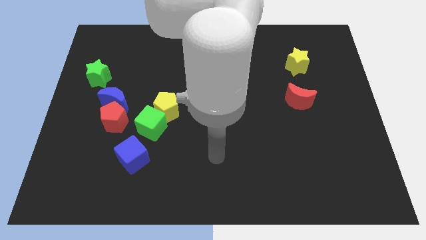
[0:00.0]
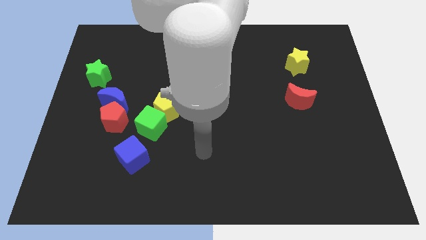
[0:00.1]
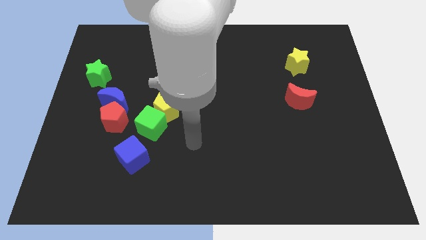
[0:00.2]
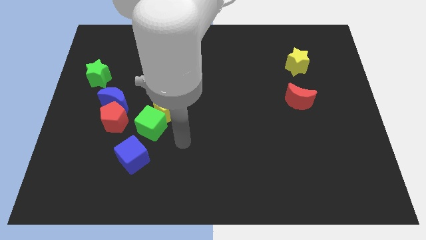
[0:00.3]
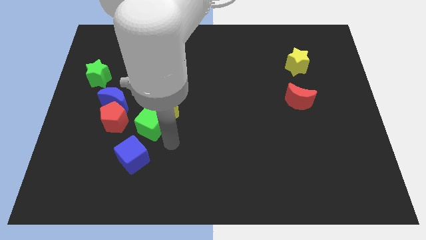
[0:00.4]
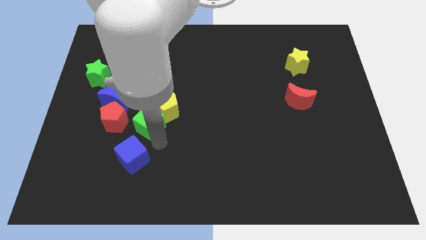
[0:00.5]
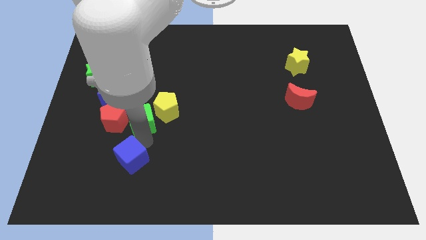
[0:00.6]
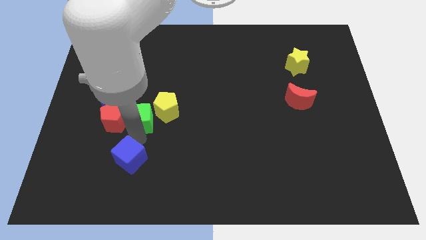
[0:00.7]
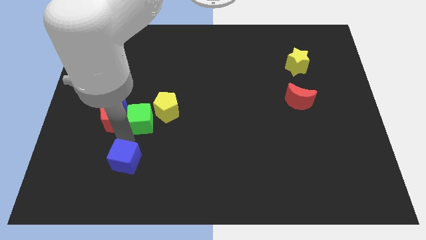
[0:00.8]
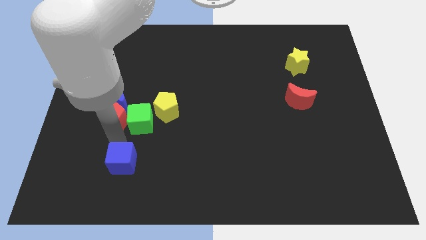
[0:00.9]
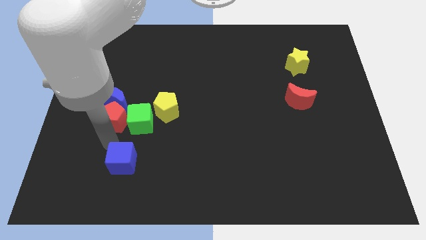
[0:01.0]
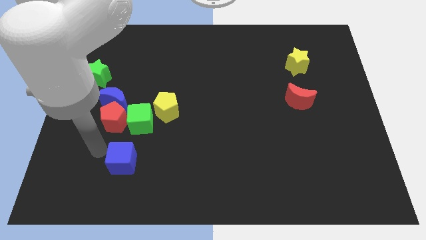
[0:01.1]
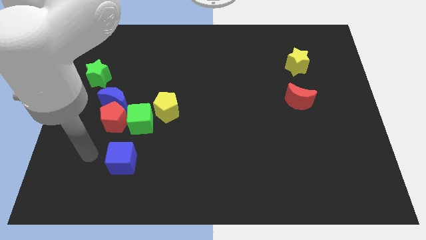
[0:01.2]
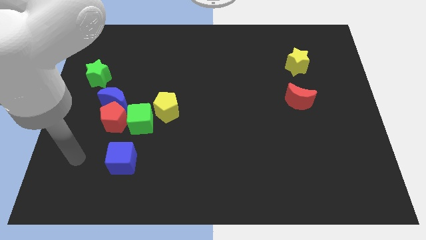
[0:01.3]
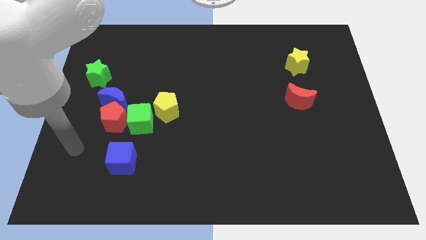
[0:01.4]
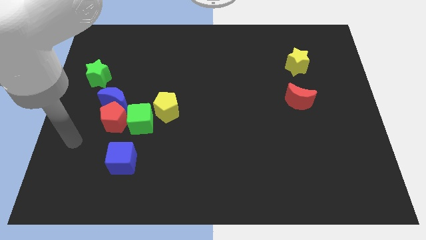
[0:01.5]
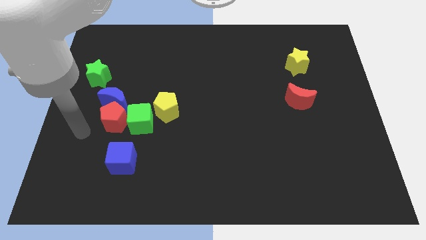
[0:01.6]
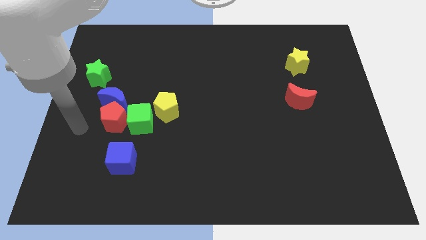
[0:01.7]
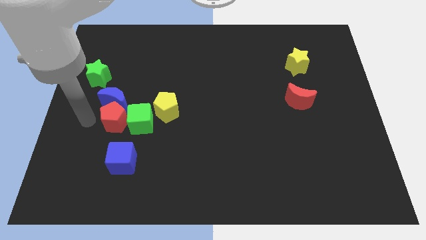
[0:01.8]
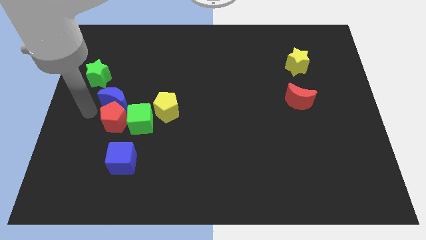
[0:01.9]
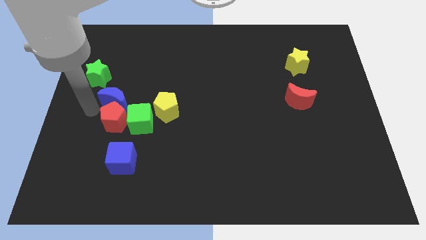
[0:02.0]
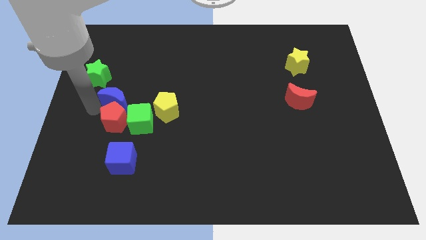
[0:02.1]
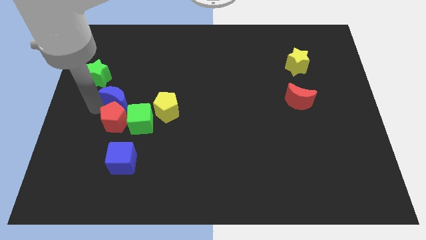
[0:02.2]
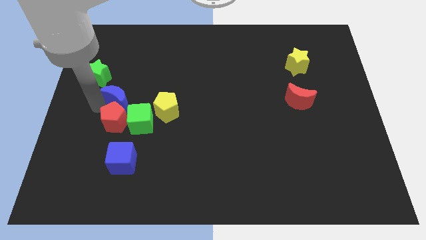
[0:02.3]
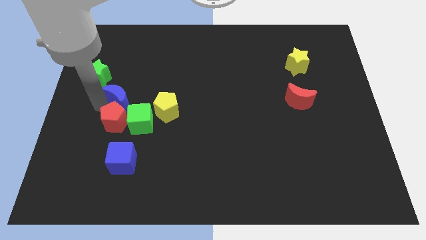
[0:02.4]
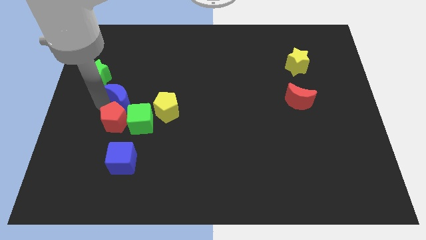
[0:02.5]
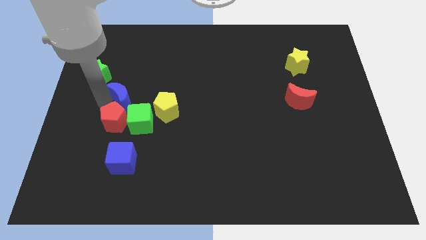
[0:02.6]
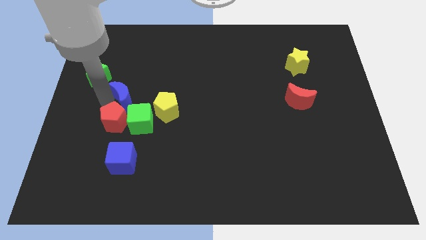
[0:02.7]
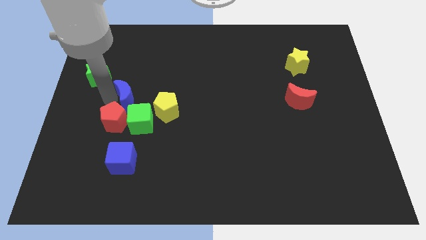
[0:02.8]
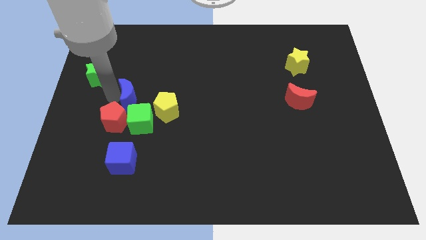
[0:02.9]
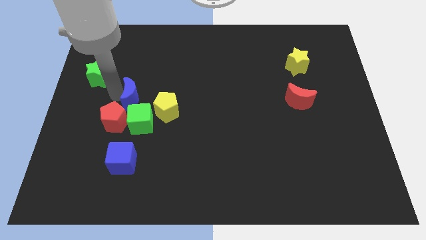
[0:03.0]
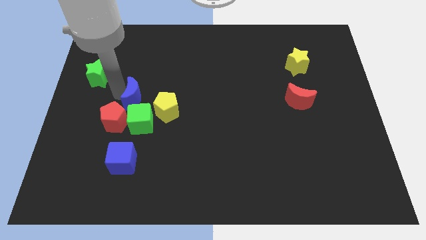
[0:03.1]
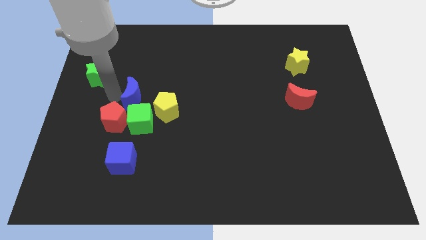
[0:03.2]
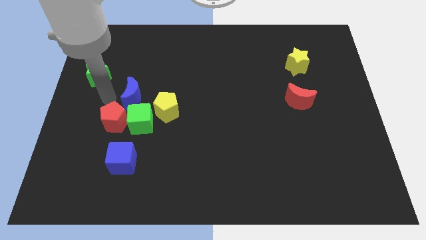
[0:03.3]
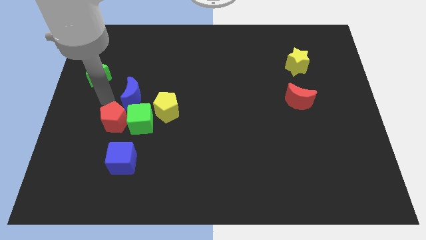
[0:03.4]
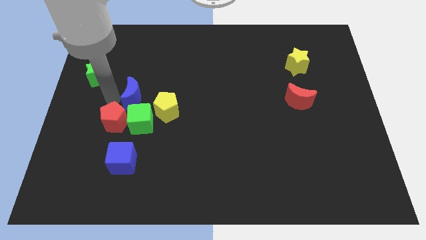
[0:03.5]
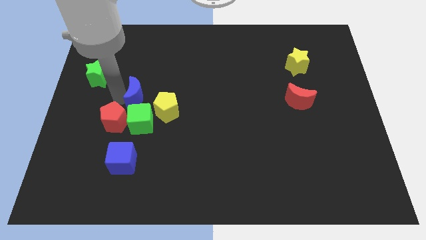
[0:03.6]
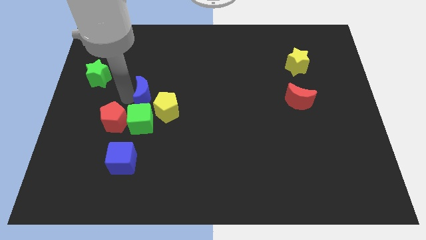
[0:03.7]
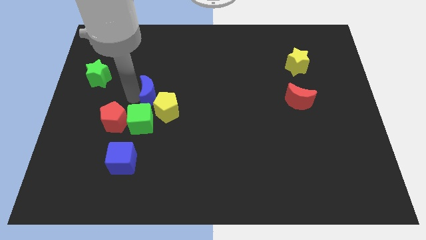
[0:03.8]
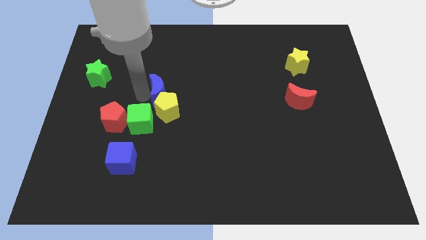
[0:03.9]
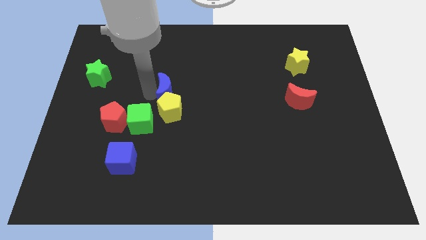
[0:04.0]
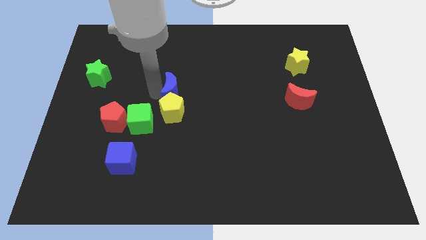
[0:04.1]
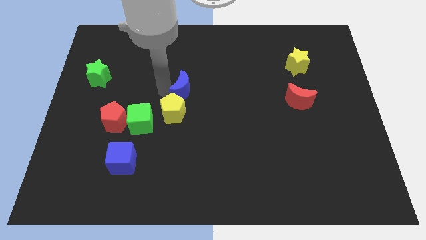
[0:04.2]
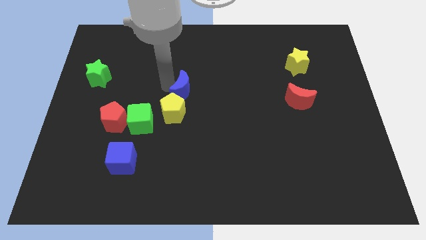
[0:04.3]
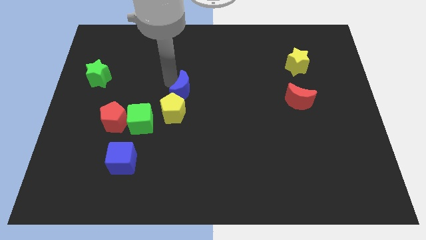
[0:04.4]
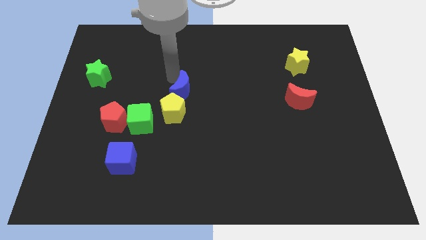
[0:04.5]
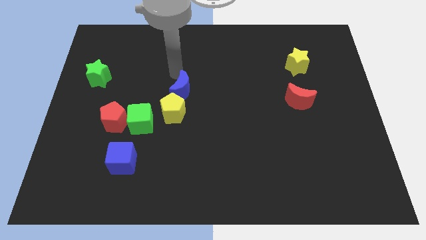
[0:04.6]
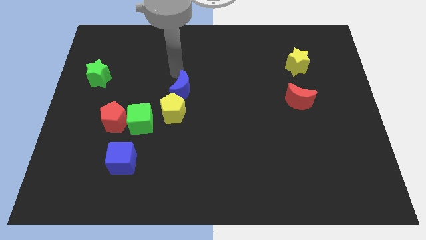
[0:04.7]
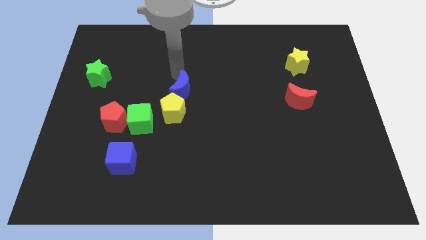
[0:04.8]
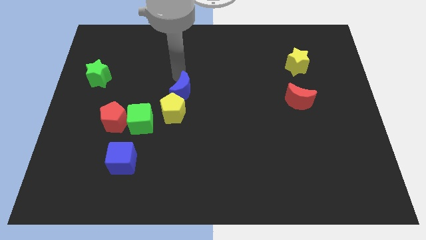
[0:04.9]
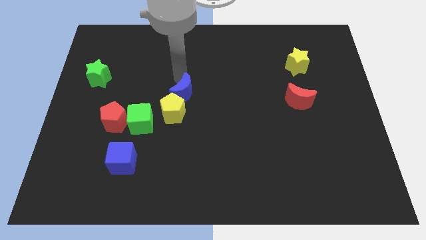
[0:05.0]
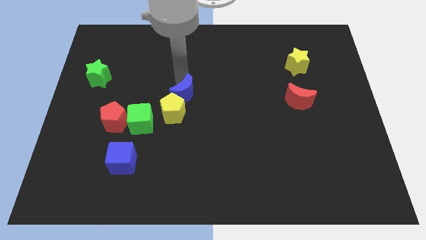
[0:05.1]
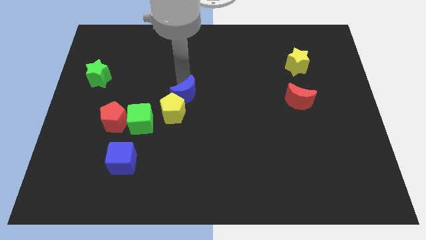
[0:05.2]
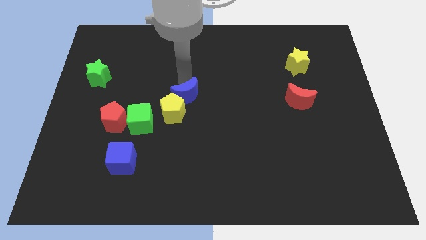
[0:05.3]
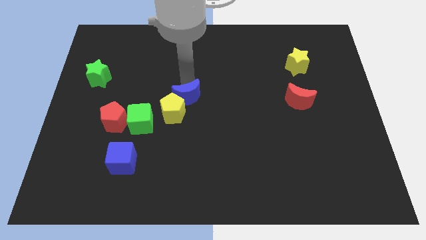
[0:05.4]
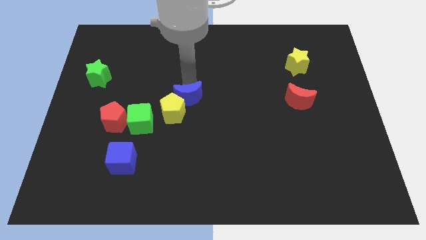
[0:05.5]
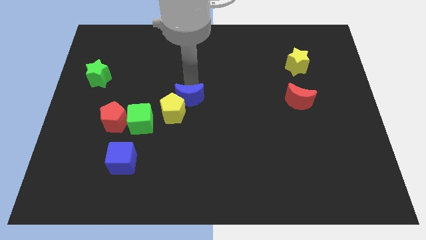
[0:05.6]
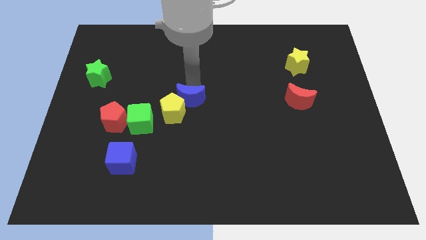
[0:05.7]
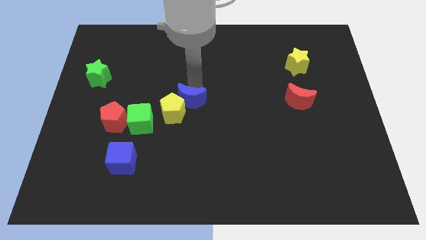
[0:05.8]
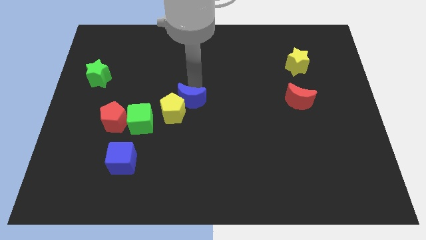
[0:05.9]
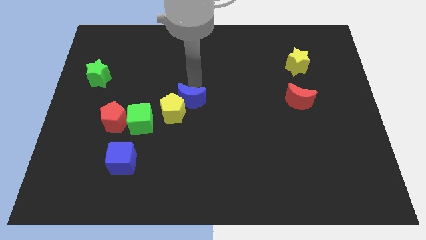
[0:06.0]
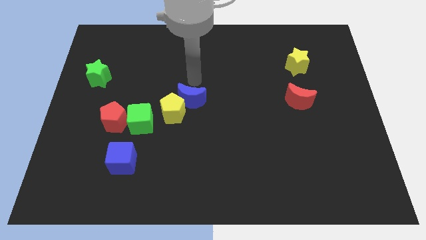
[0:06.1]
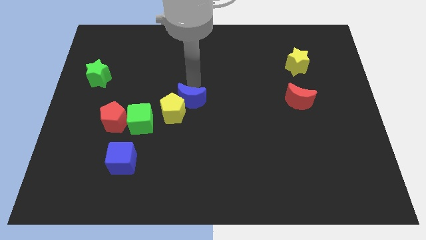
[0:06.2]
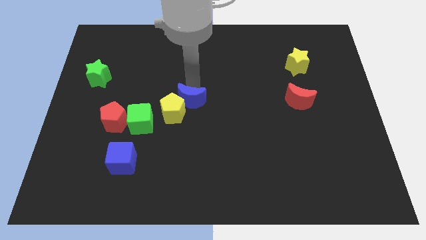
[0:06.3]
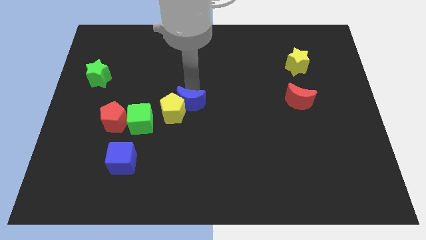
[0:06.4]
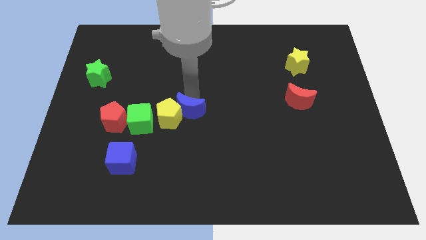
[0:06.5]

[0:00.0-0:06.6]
move the blue moon a little bit diagonally down and right

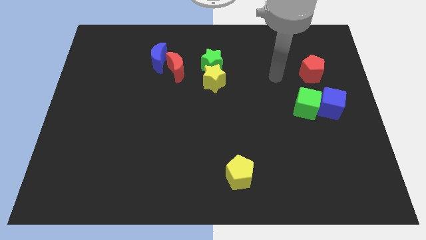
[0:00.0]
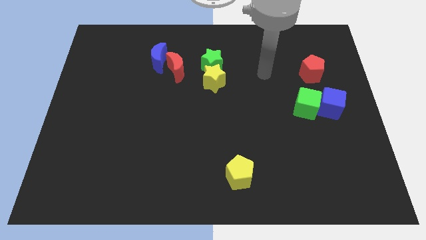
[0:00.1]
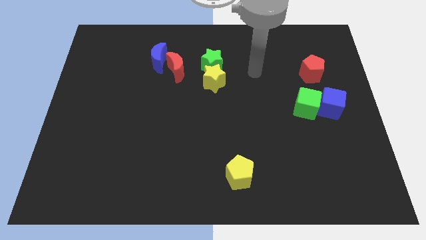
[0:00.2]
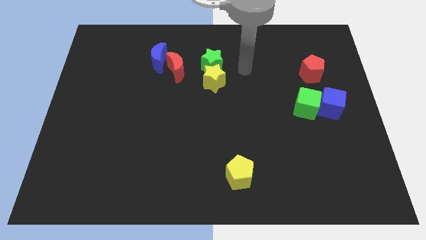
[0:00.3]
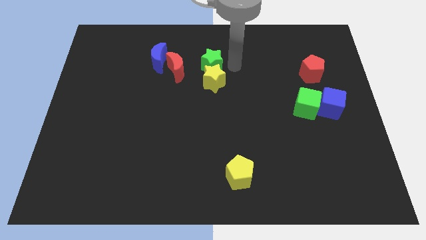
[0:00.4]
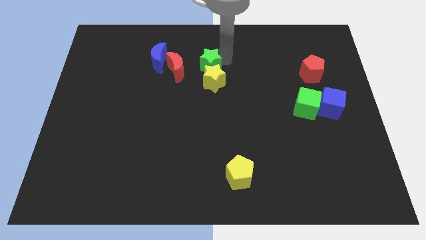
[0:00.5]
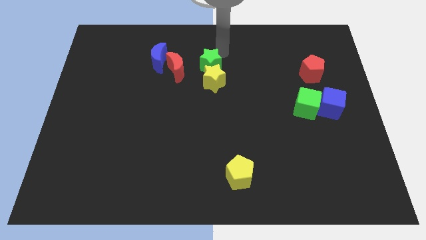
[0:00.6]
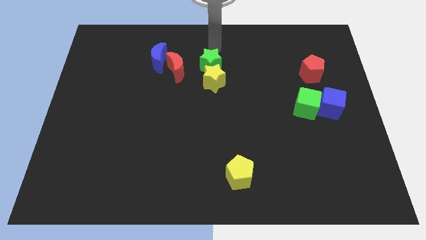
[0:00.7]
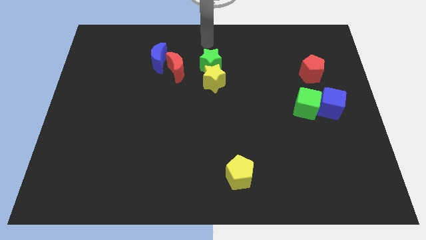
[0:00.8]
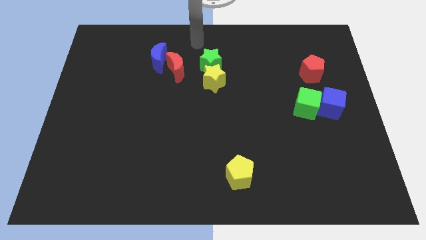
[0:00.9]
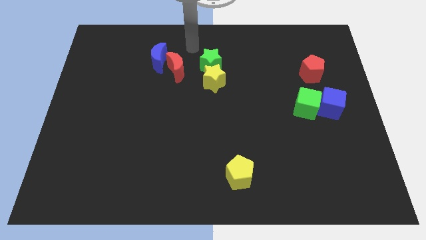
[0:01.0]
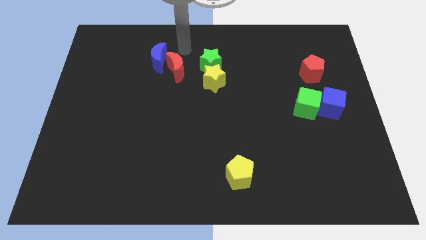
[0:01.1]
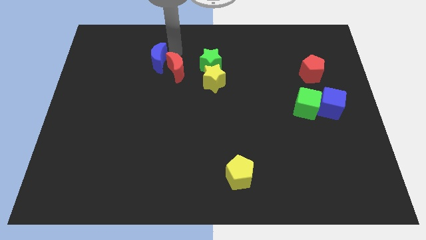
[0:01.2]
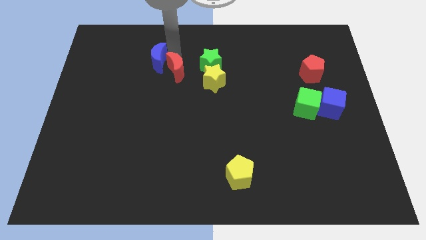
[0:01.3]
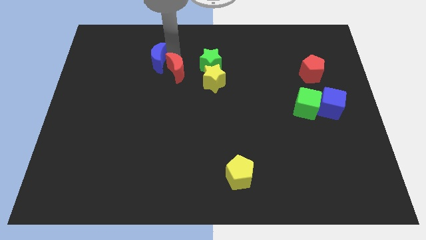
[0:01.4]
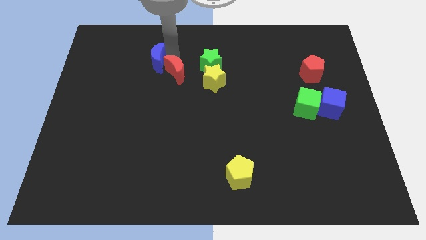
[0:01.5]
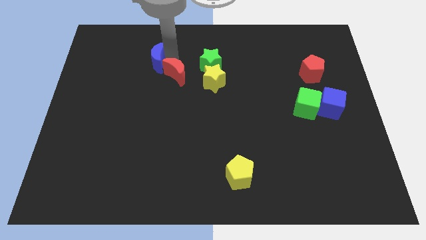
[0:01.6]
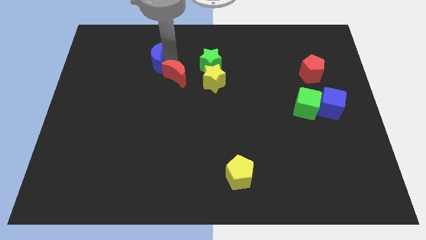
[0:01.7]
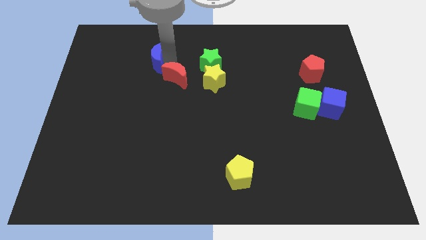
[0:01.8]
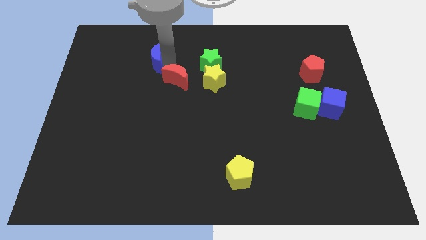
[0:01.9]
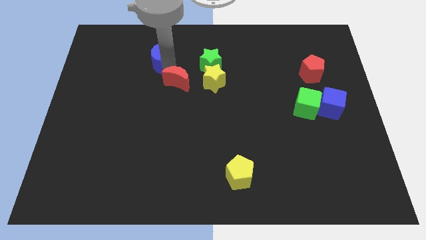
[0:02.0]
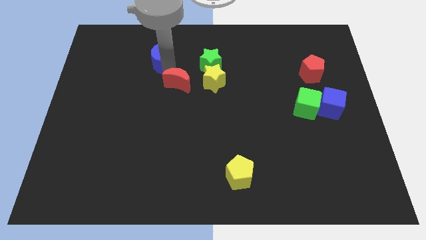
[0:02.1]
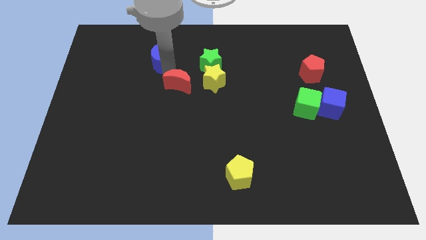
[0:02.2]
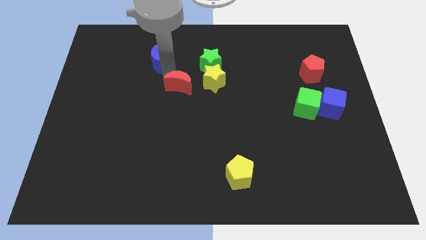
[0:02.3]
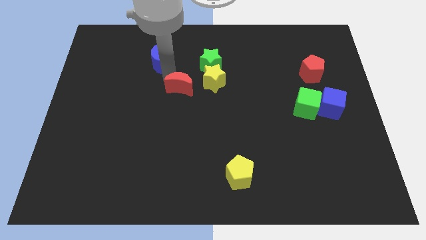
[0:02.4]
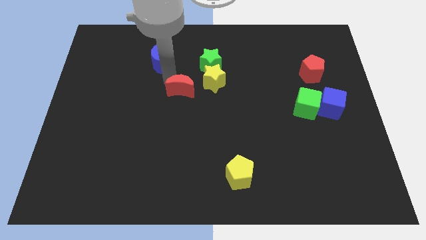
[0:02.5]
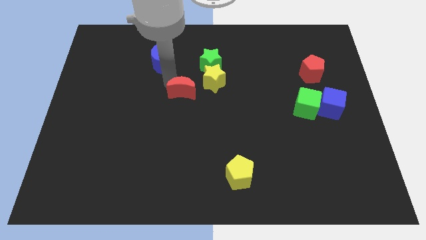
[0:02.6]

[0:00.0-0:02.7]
move the red moon downwards a bit
